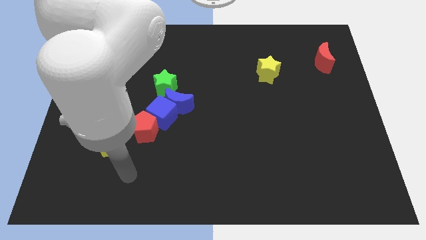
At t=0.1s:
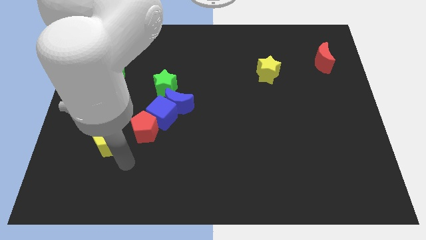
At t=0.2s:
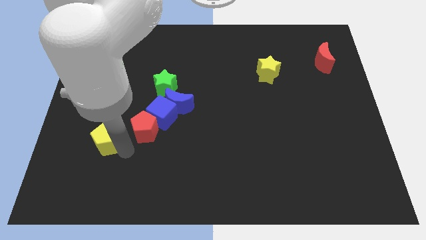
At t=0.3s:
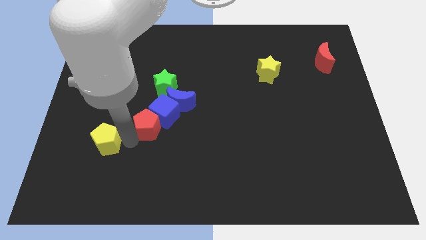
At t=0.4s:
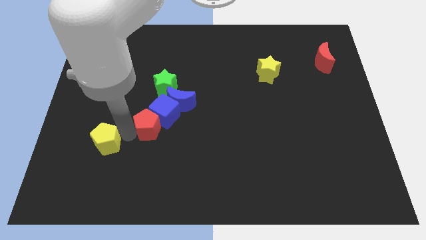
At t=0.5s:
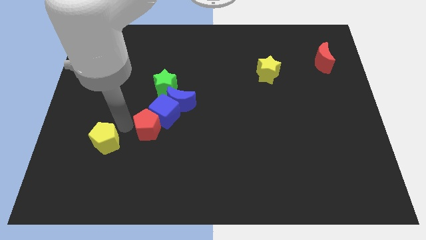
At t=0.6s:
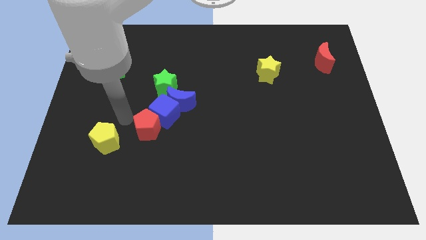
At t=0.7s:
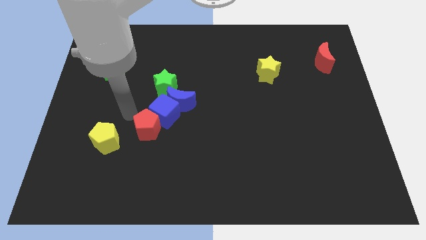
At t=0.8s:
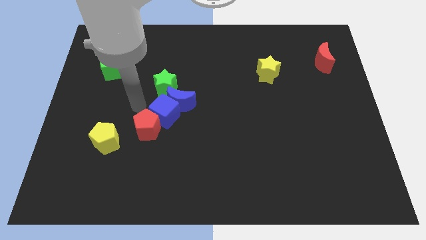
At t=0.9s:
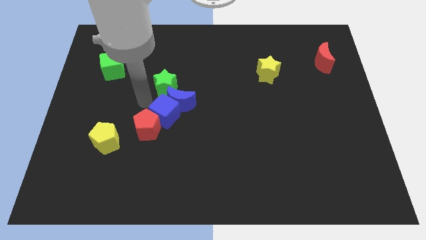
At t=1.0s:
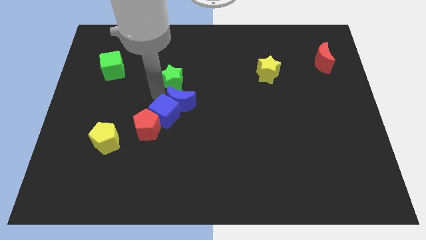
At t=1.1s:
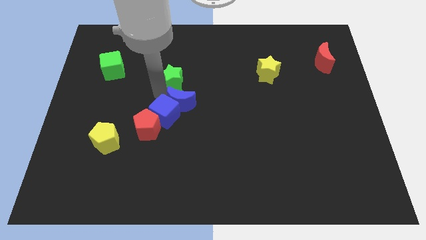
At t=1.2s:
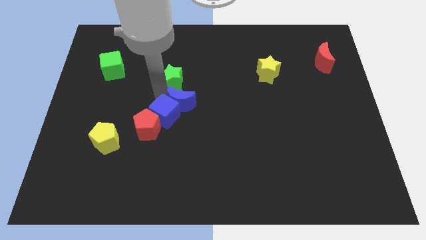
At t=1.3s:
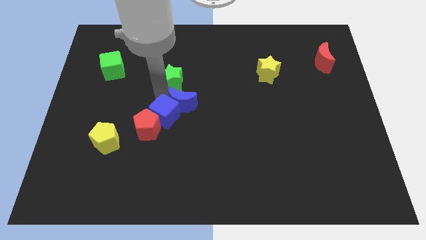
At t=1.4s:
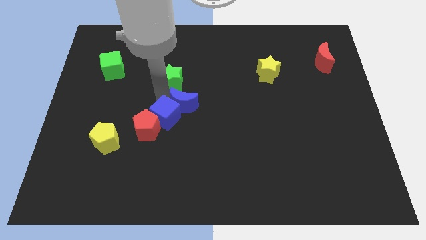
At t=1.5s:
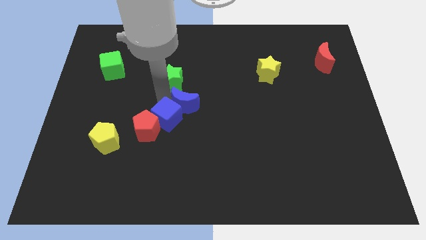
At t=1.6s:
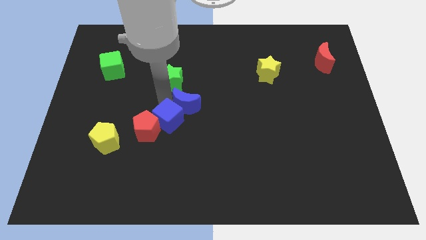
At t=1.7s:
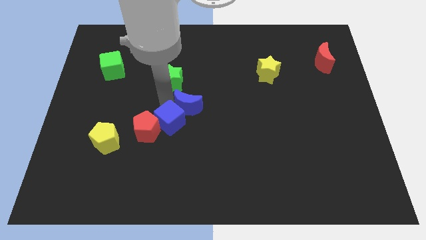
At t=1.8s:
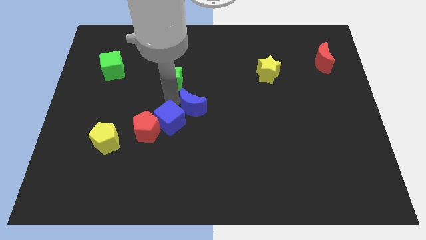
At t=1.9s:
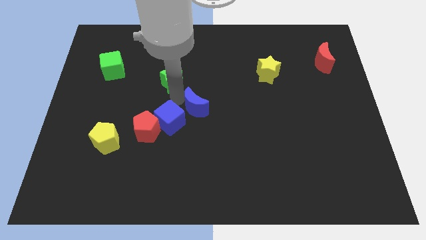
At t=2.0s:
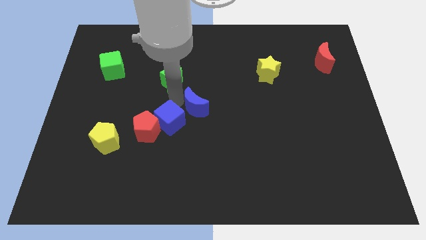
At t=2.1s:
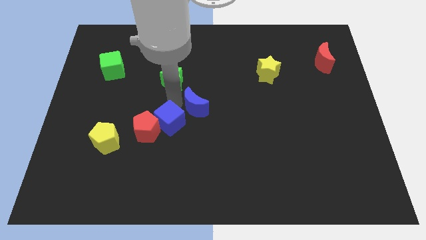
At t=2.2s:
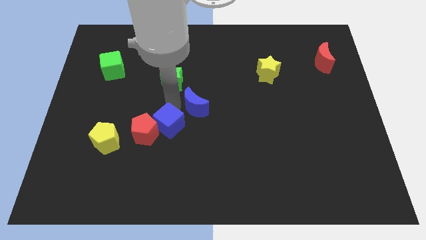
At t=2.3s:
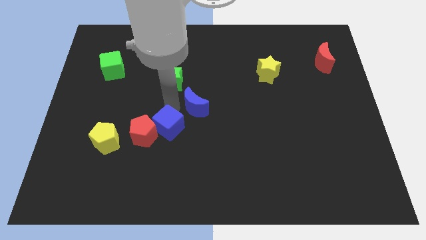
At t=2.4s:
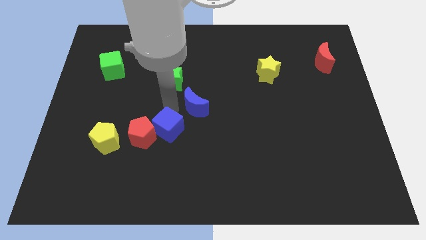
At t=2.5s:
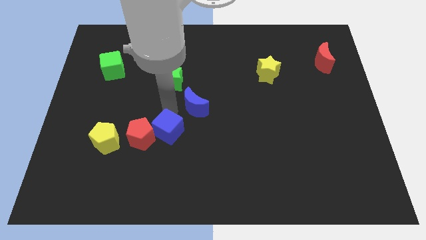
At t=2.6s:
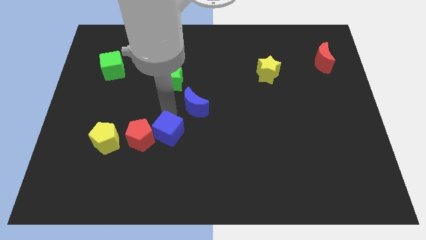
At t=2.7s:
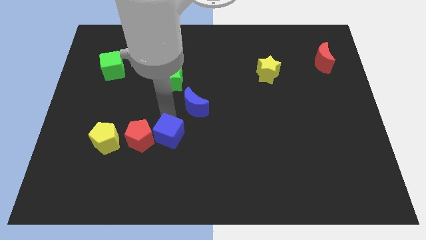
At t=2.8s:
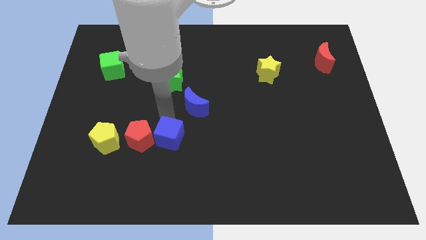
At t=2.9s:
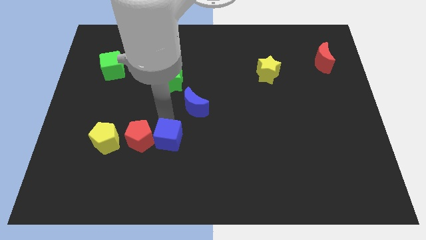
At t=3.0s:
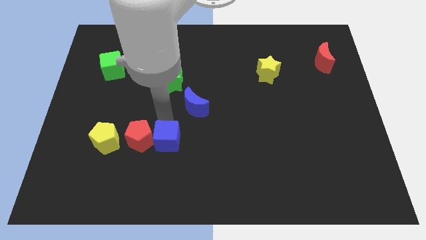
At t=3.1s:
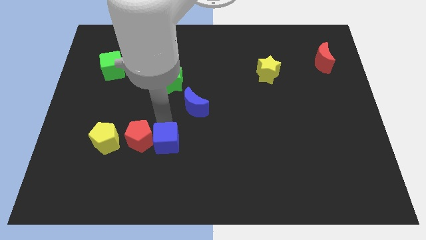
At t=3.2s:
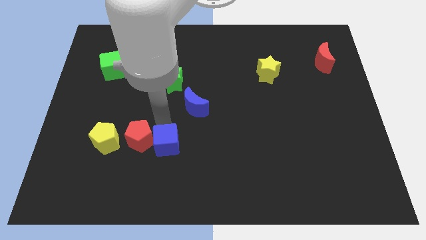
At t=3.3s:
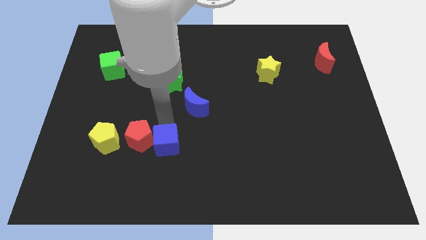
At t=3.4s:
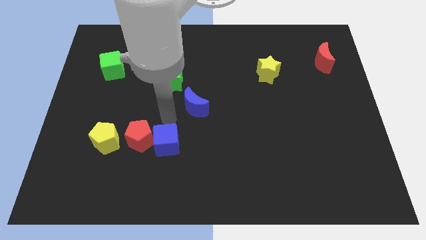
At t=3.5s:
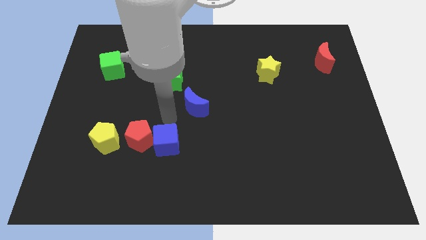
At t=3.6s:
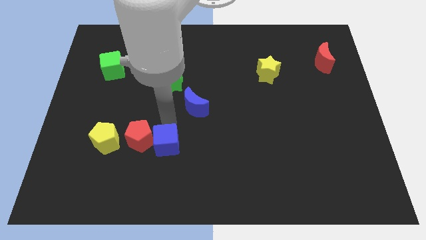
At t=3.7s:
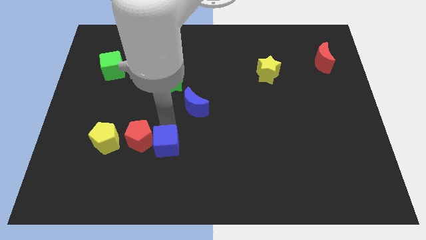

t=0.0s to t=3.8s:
separate the blue cube from the blue moon, red pentagon, and green star

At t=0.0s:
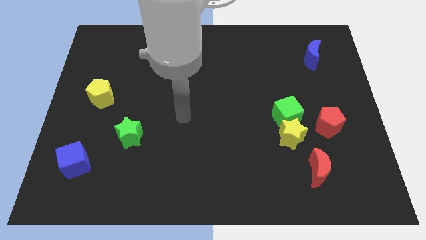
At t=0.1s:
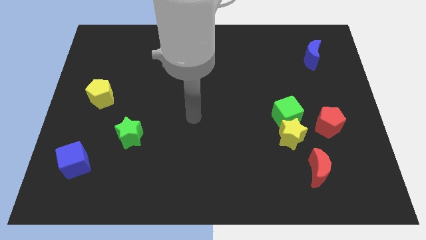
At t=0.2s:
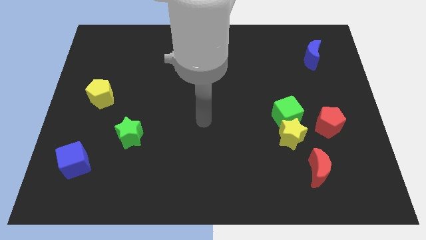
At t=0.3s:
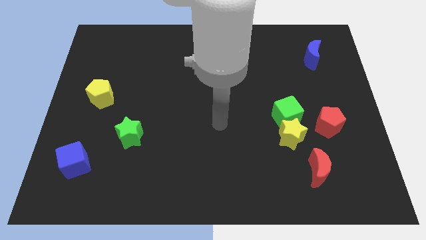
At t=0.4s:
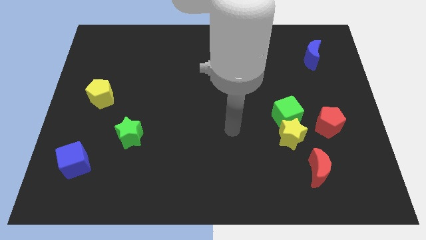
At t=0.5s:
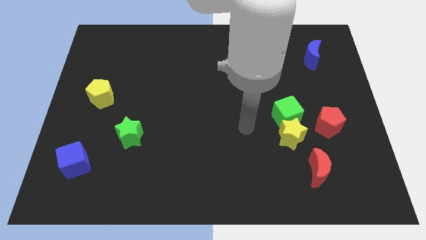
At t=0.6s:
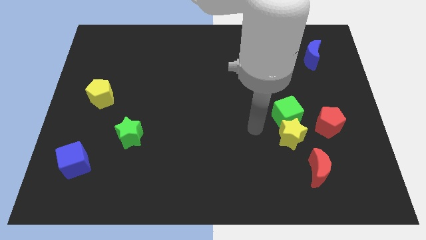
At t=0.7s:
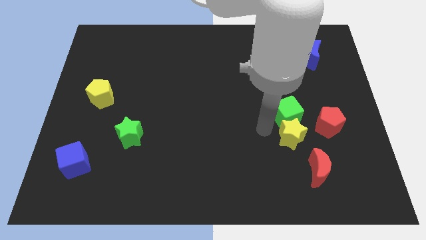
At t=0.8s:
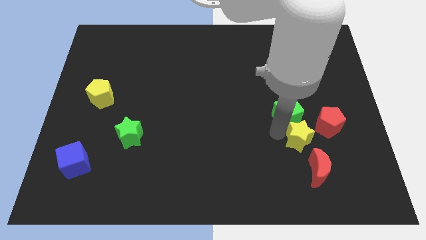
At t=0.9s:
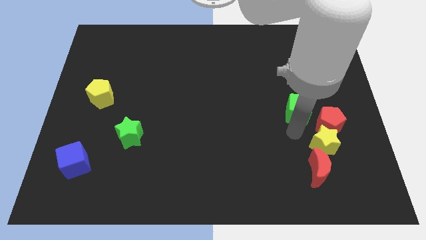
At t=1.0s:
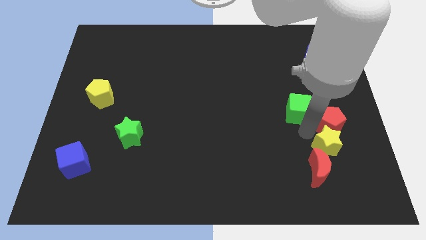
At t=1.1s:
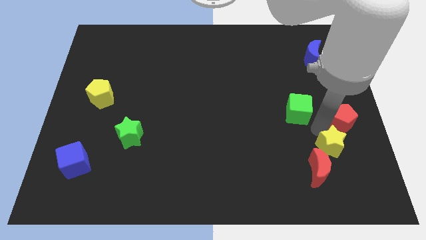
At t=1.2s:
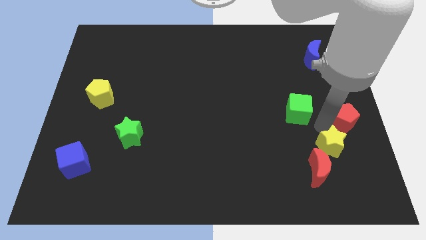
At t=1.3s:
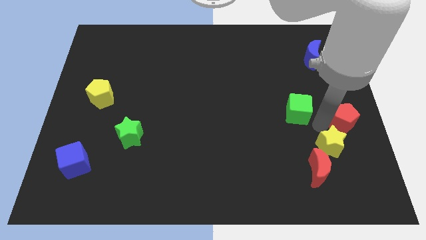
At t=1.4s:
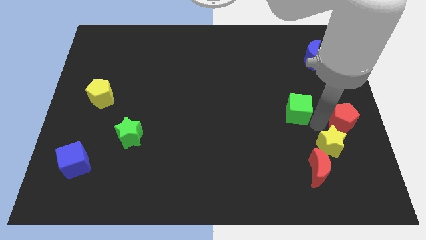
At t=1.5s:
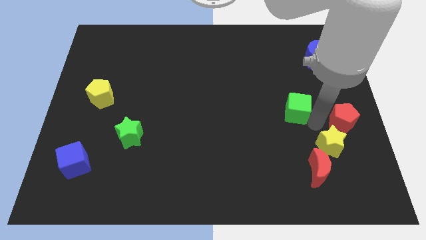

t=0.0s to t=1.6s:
separate the green cube from the yellow star and red pentagon

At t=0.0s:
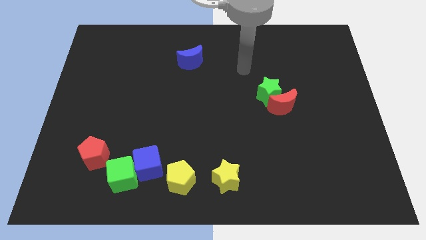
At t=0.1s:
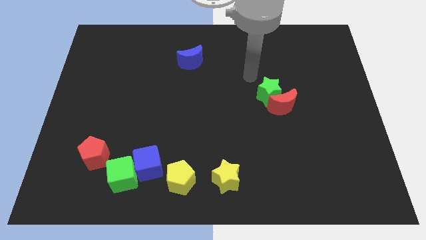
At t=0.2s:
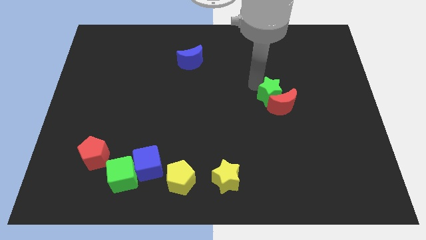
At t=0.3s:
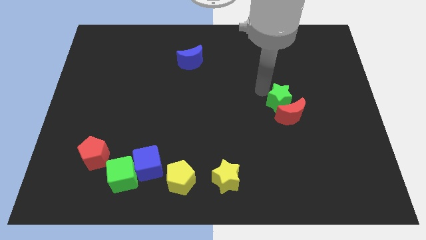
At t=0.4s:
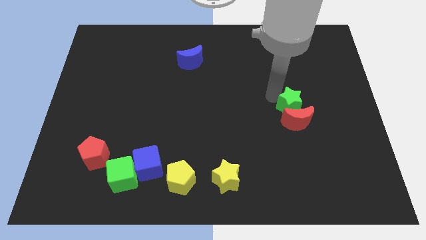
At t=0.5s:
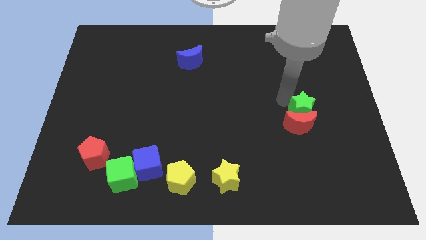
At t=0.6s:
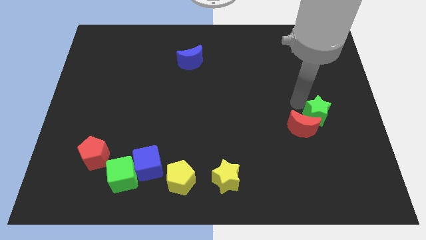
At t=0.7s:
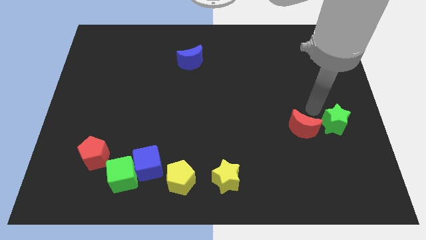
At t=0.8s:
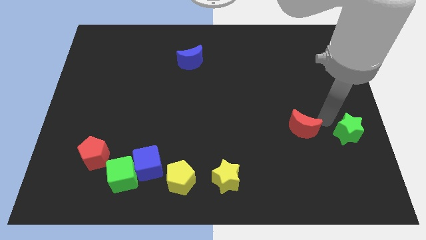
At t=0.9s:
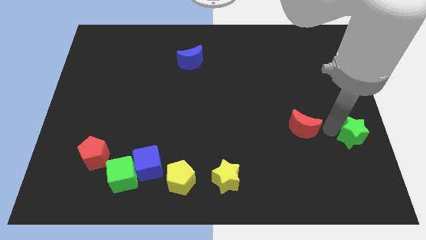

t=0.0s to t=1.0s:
pull the red moon apart from the green star

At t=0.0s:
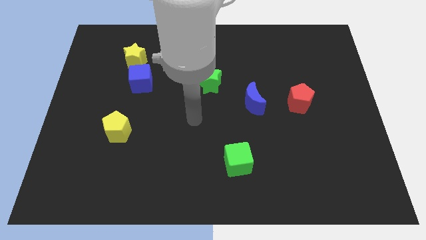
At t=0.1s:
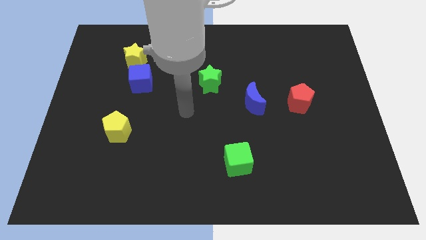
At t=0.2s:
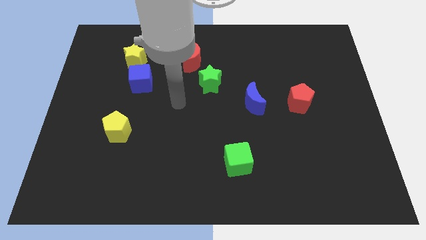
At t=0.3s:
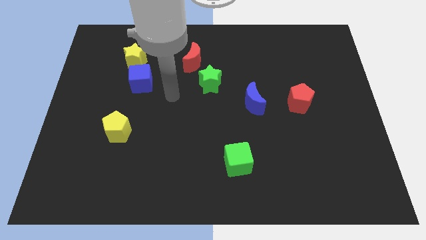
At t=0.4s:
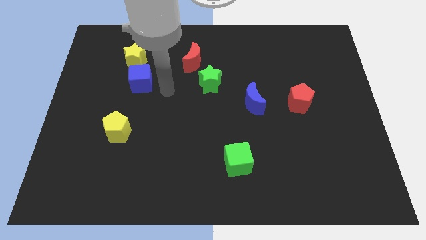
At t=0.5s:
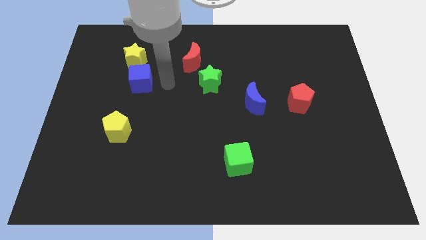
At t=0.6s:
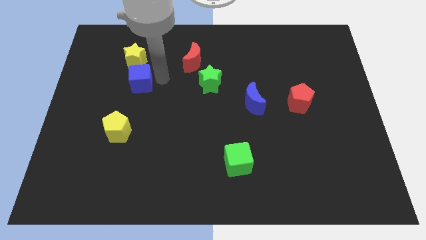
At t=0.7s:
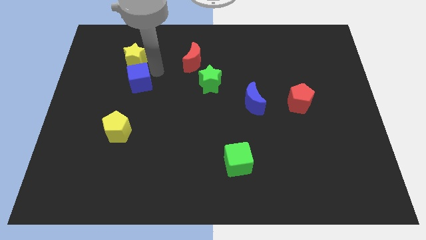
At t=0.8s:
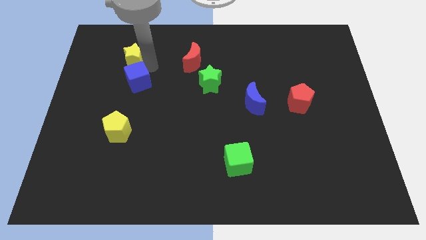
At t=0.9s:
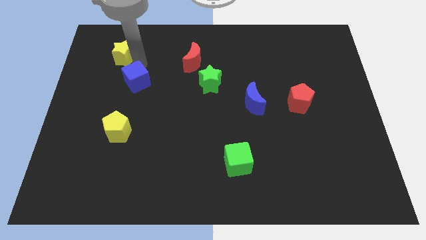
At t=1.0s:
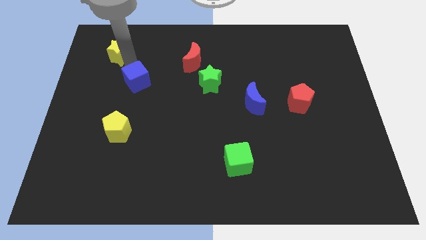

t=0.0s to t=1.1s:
move the blue cube away from the yellow star

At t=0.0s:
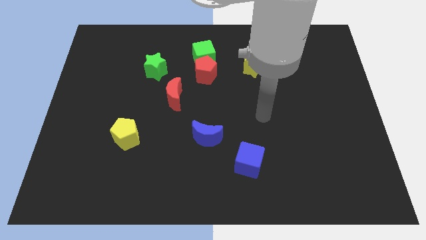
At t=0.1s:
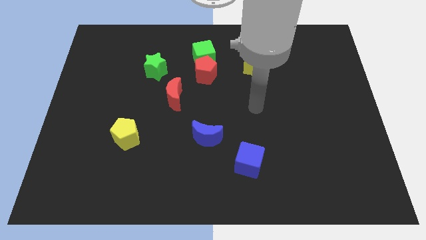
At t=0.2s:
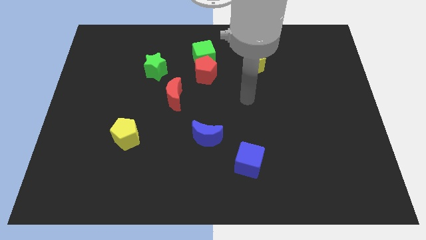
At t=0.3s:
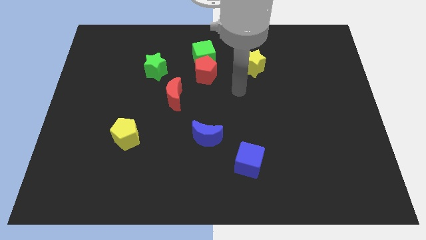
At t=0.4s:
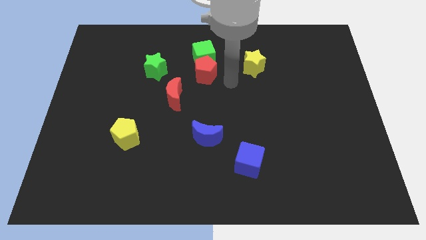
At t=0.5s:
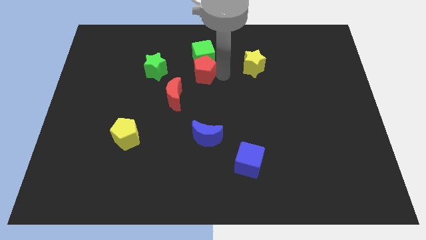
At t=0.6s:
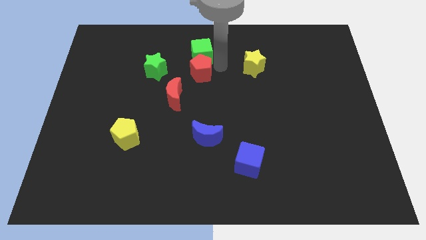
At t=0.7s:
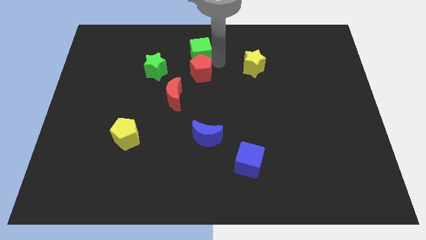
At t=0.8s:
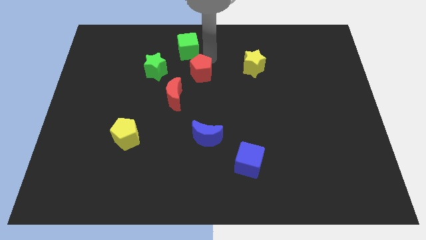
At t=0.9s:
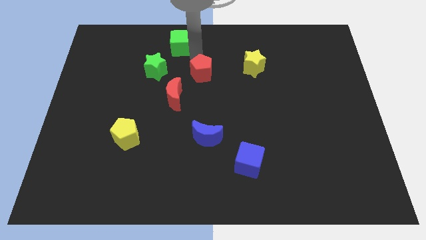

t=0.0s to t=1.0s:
separate the red pentagon from the green cube

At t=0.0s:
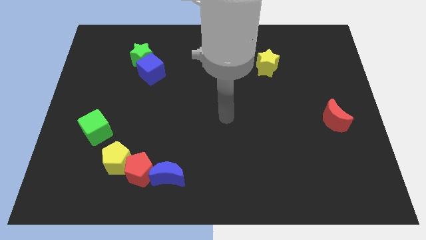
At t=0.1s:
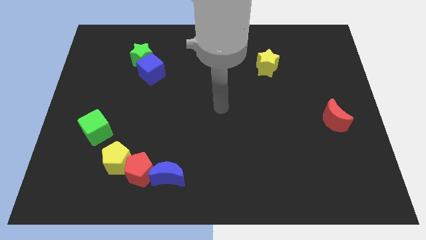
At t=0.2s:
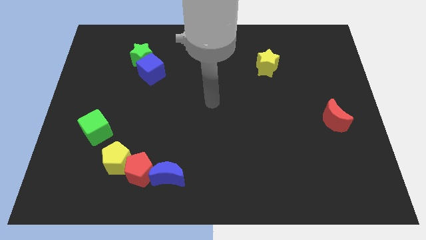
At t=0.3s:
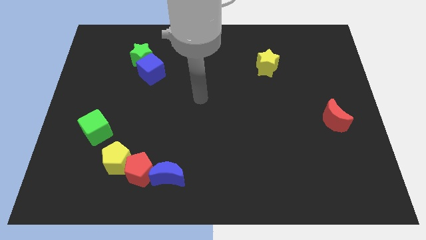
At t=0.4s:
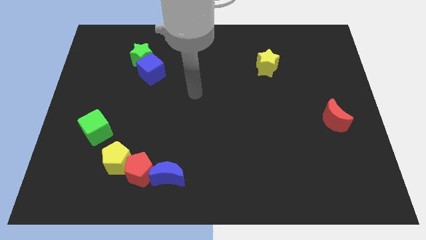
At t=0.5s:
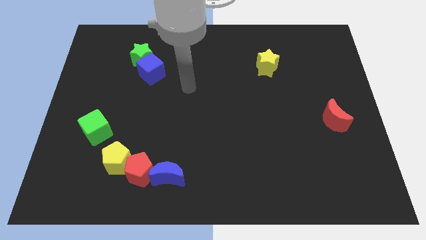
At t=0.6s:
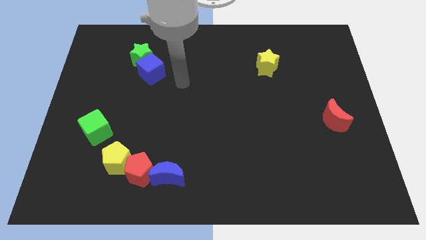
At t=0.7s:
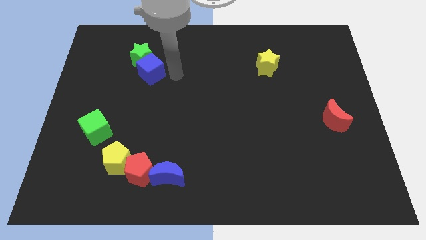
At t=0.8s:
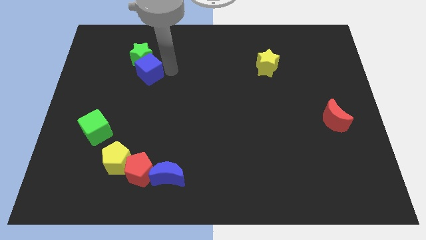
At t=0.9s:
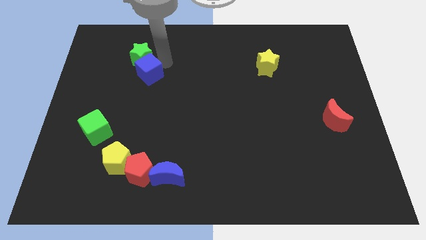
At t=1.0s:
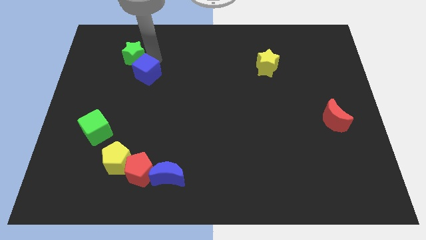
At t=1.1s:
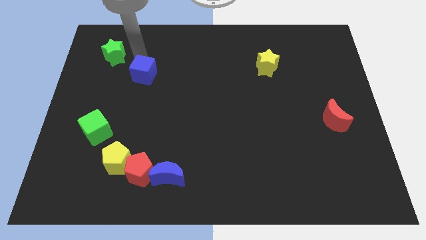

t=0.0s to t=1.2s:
pull the blue cube apart from the green star
